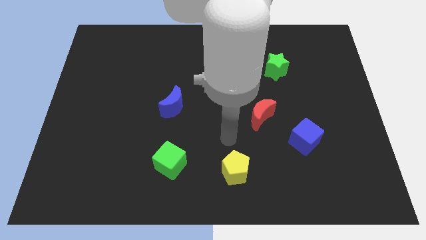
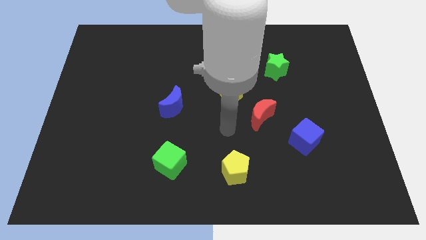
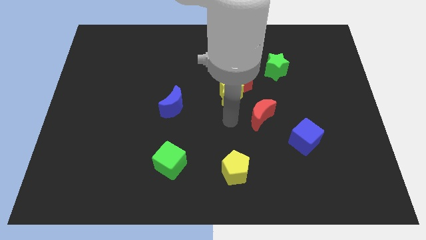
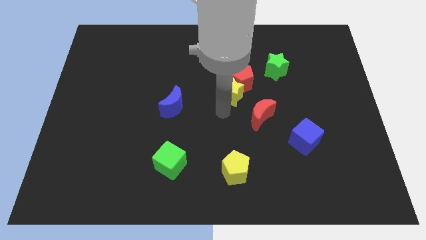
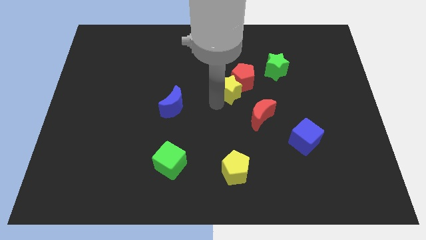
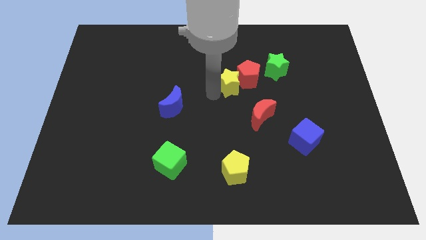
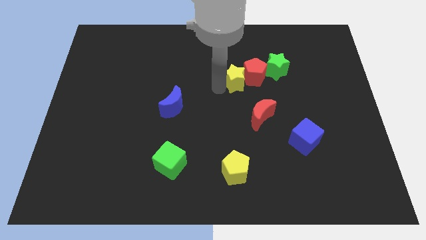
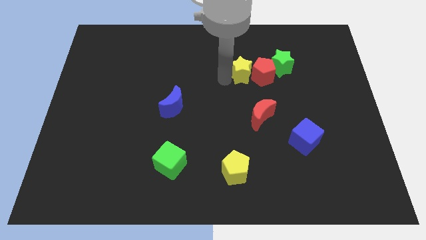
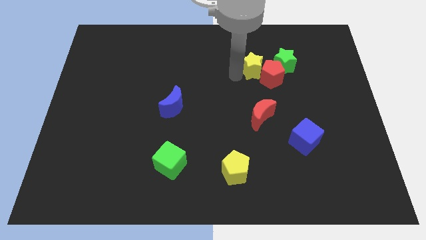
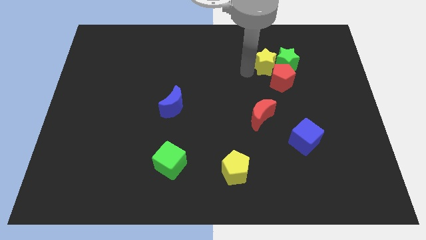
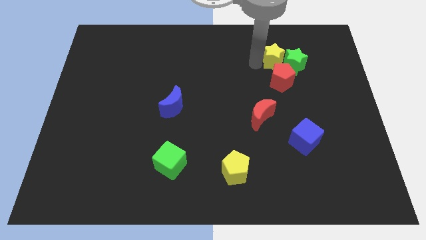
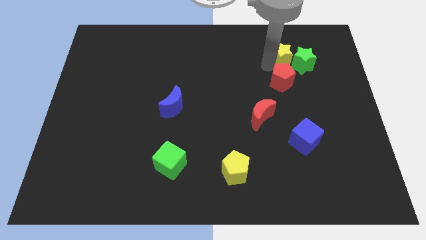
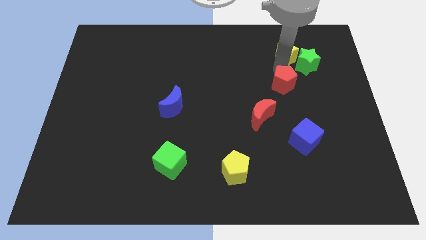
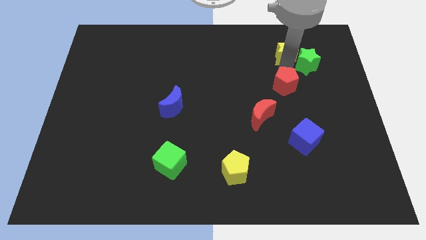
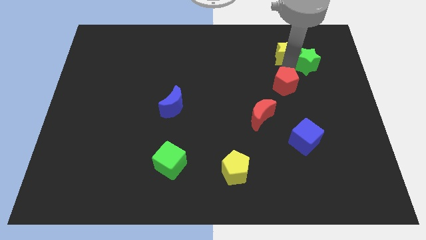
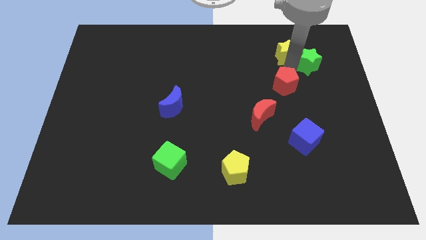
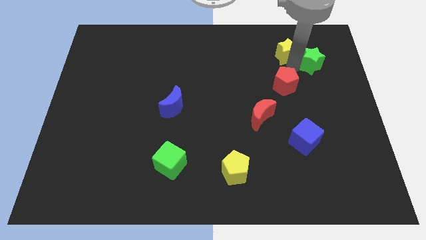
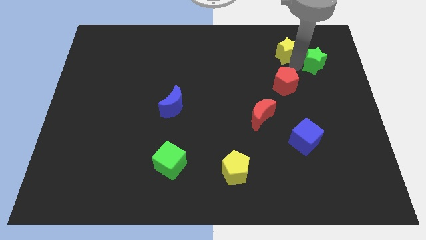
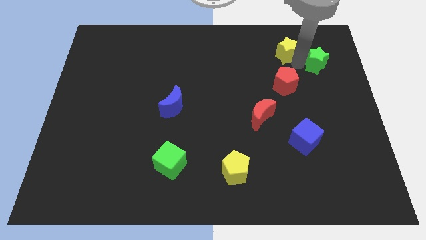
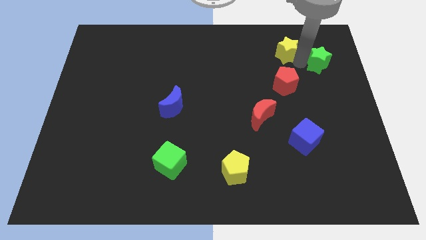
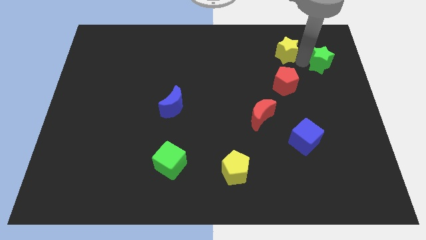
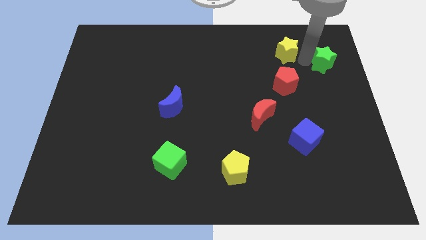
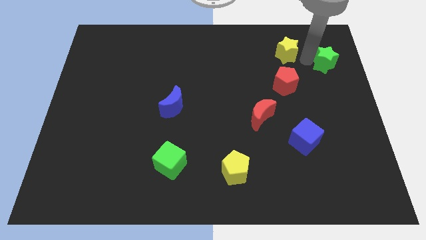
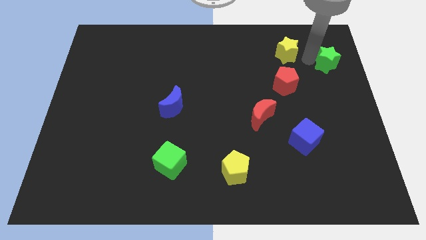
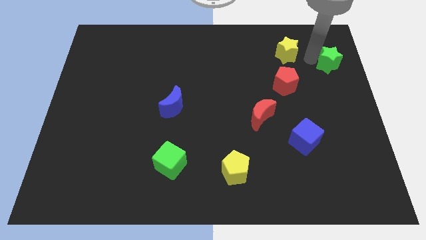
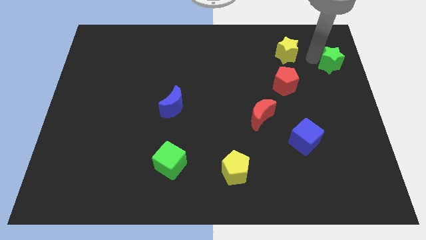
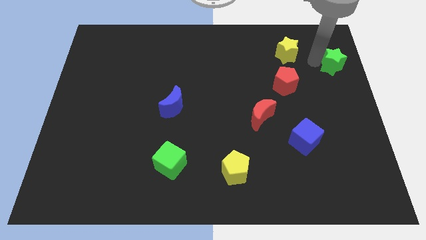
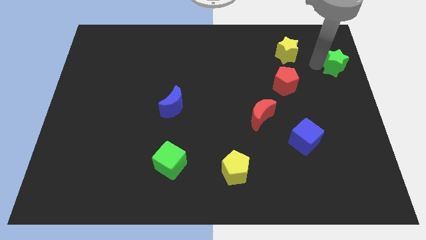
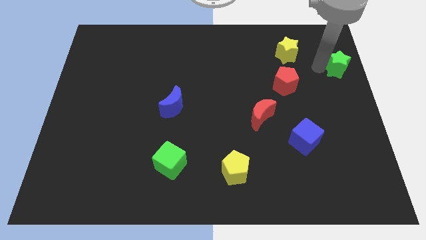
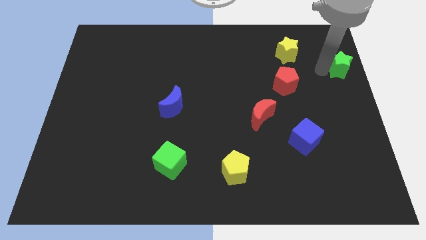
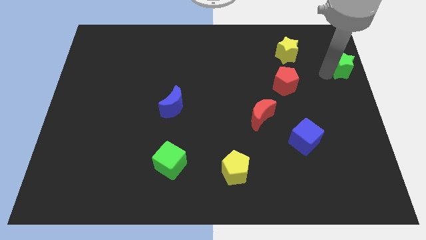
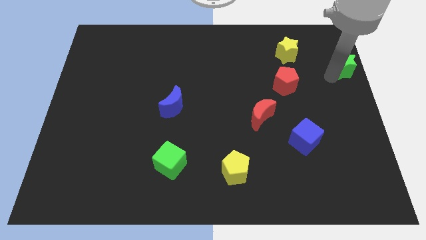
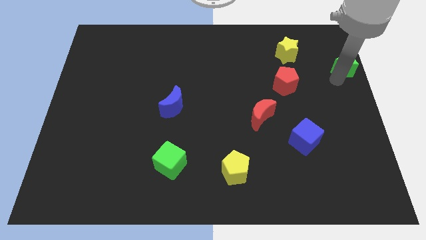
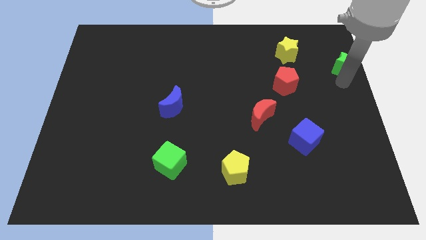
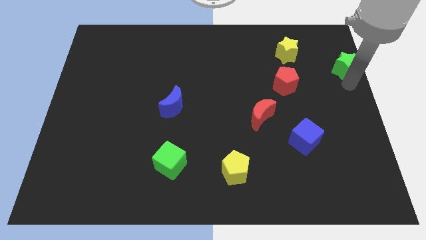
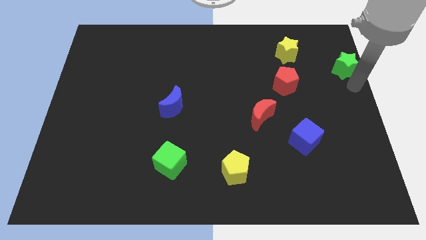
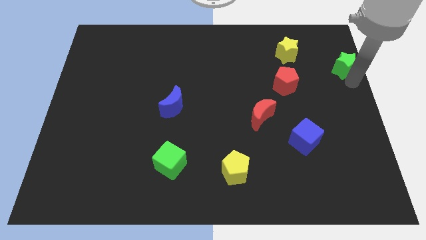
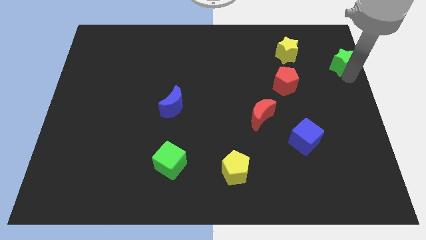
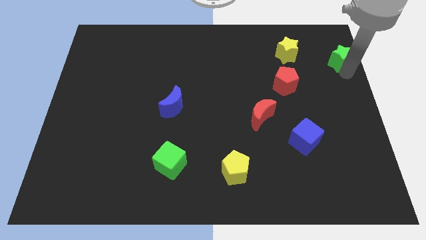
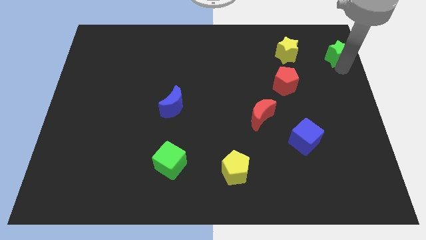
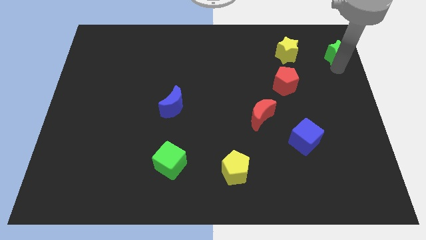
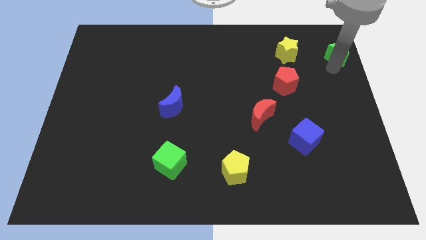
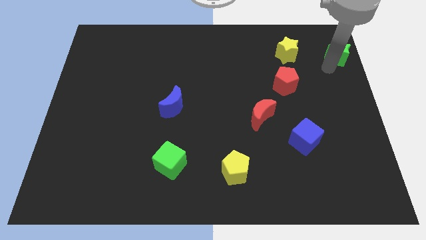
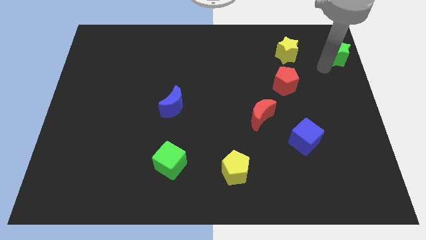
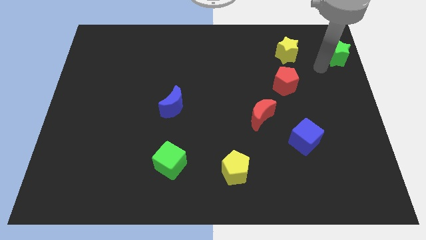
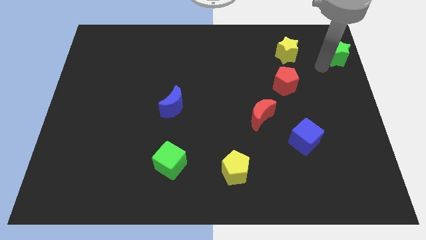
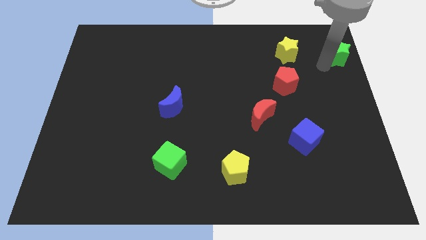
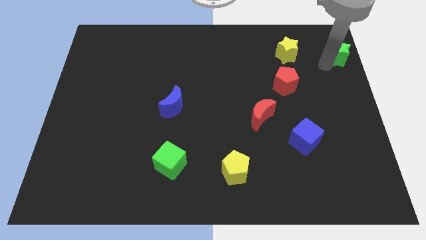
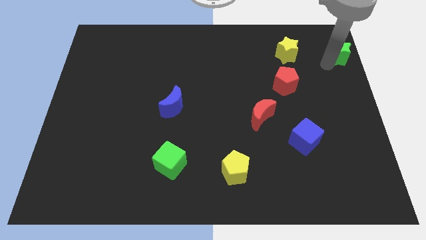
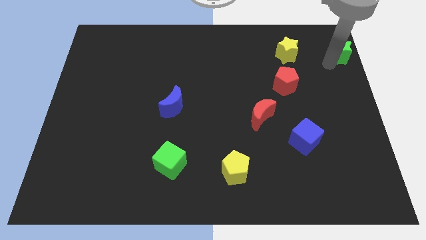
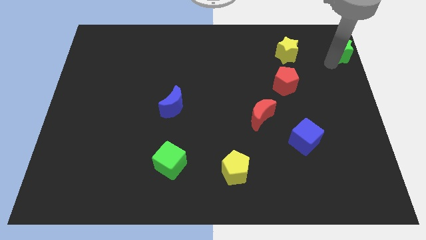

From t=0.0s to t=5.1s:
push the green star to the top right corner

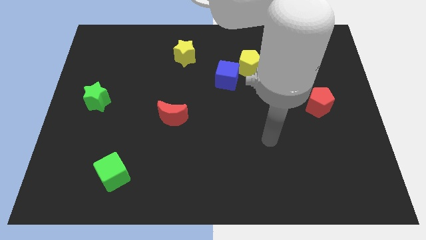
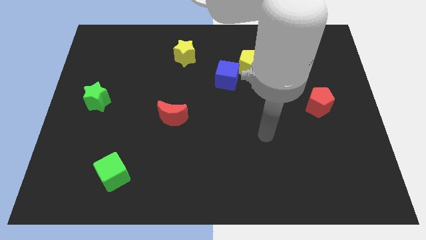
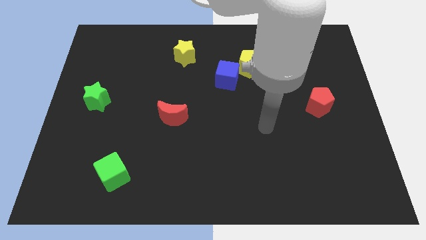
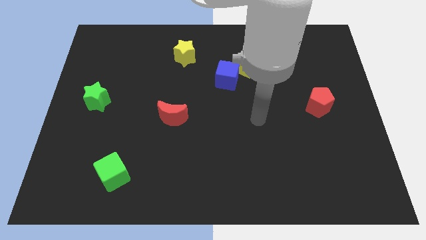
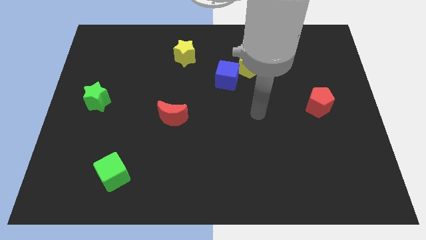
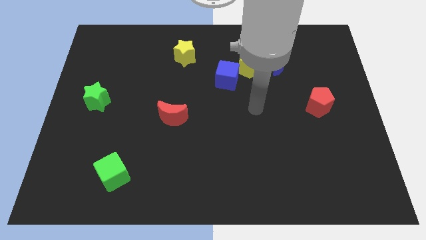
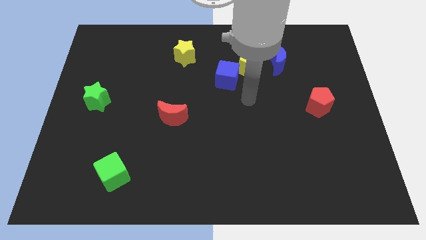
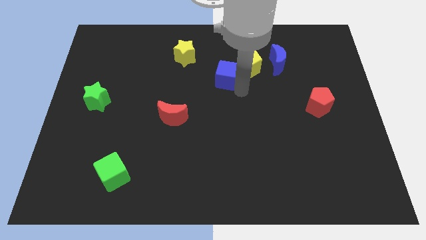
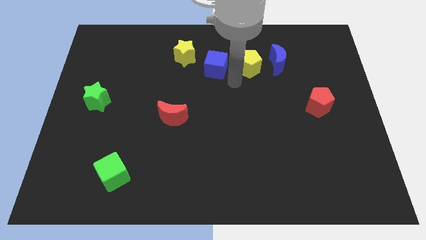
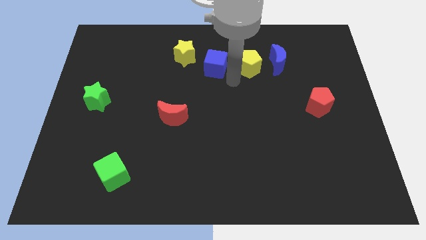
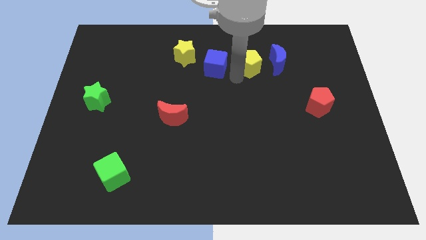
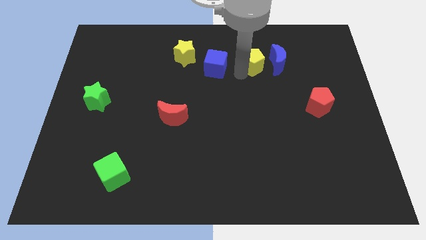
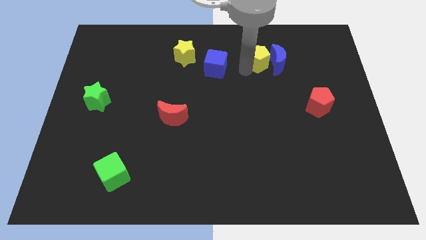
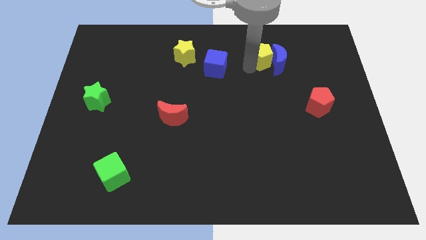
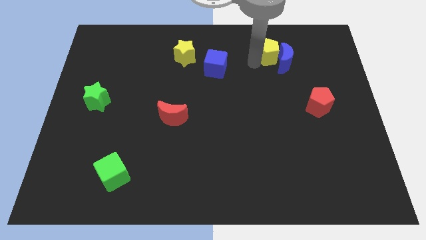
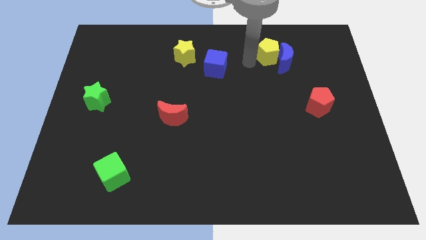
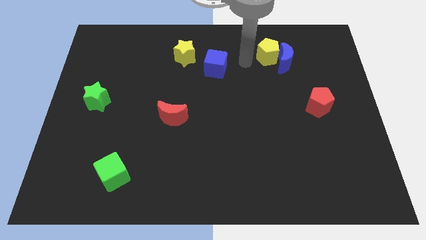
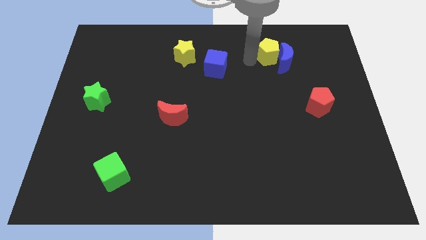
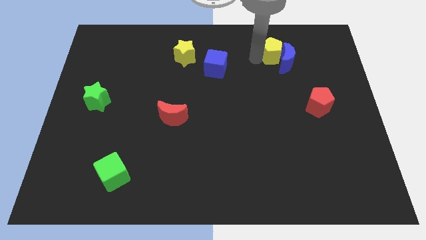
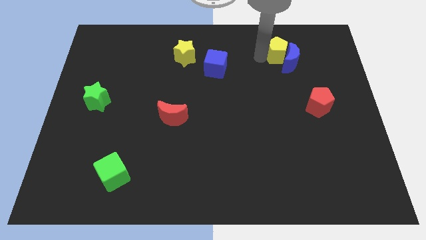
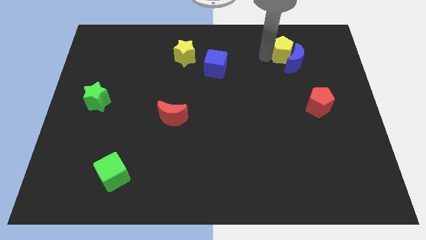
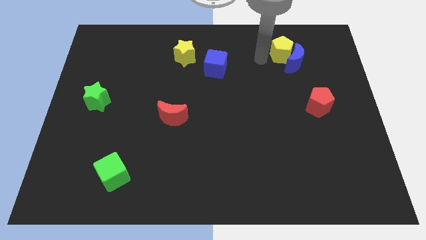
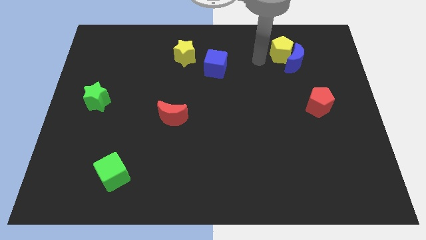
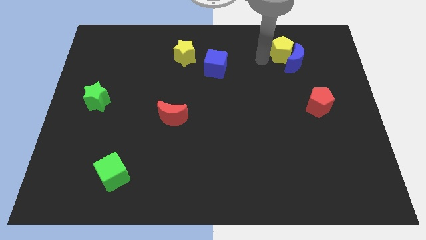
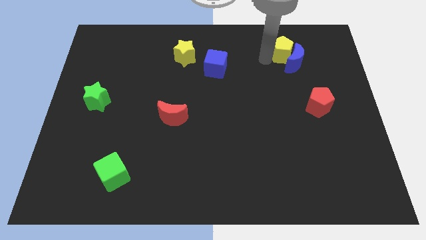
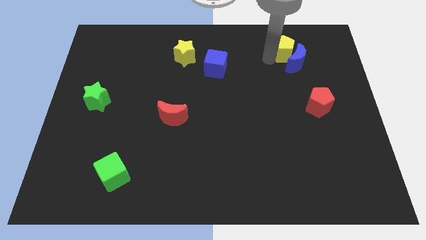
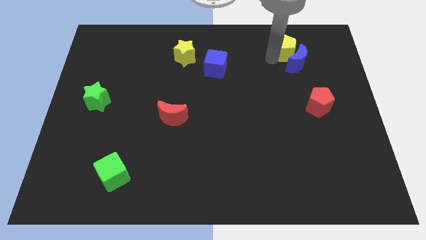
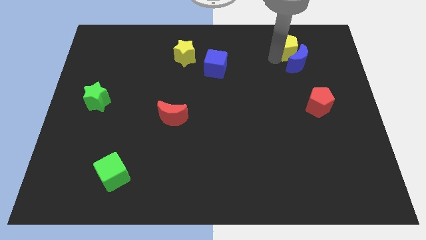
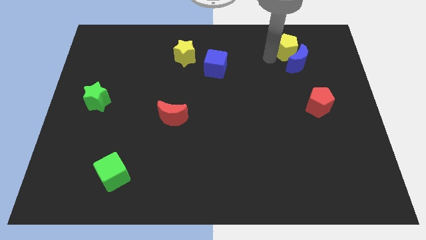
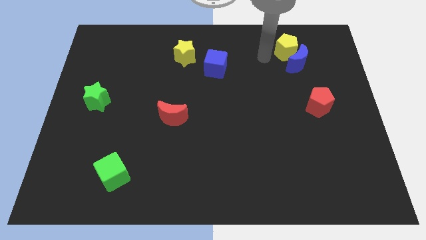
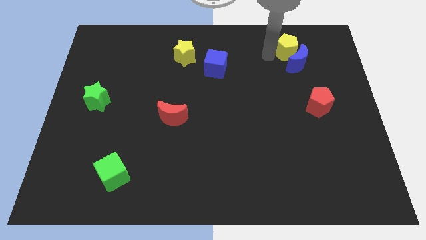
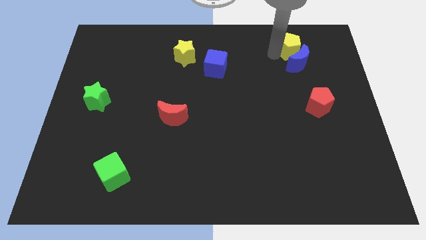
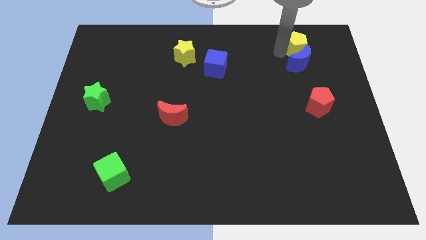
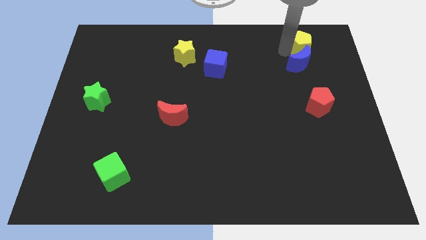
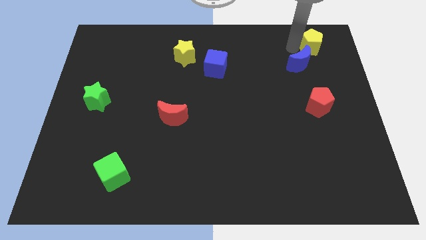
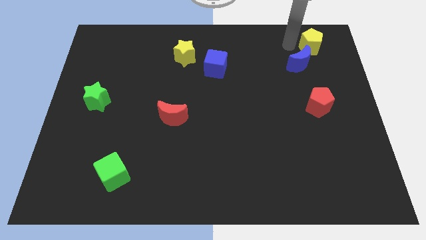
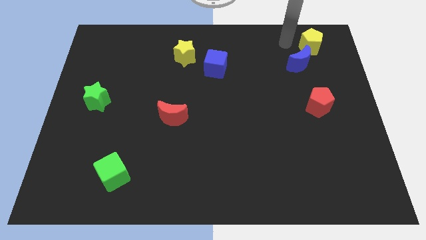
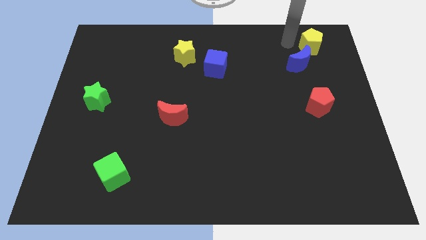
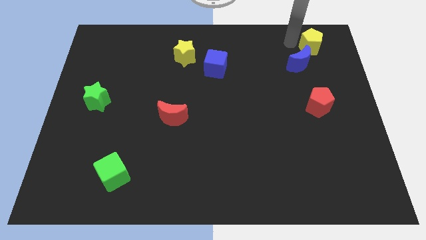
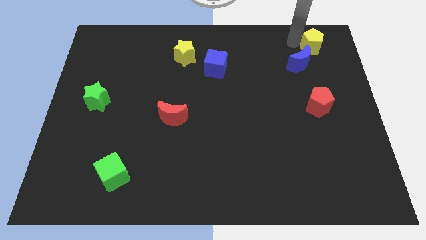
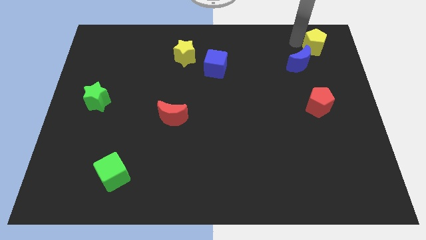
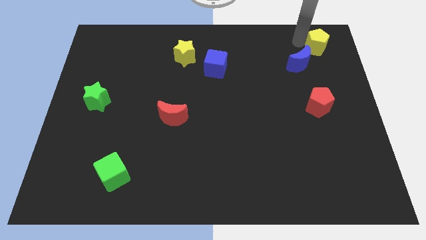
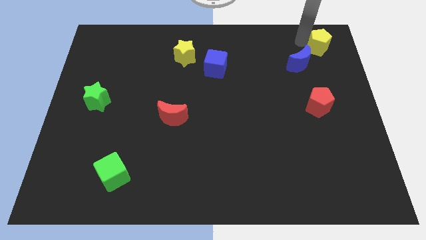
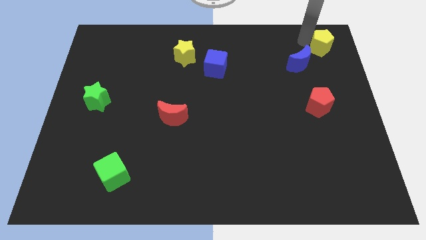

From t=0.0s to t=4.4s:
push the yellow pentagon to the top right corner
